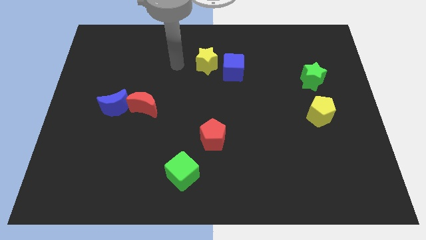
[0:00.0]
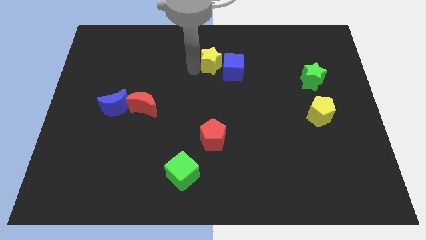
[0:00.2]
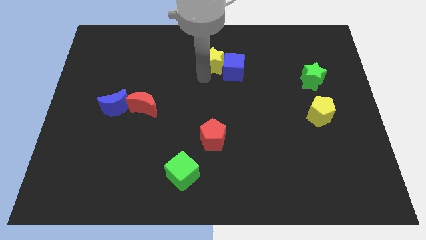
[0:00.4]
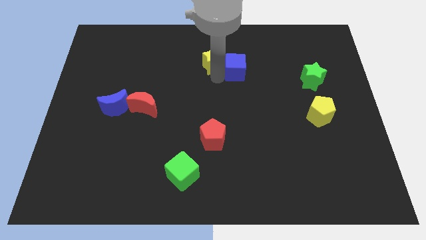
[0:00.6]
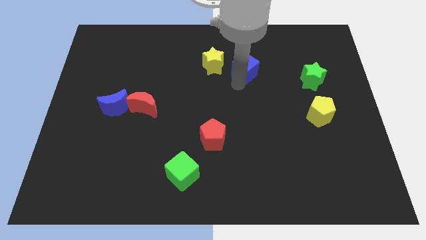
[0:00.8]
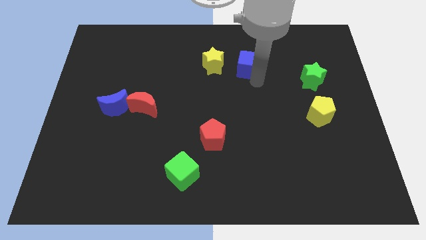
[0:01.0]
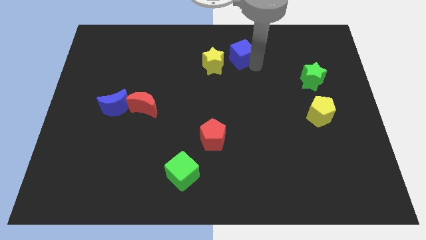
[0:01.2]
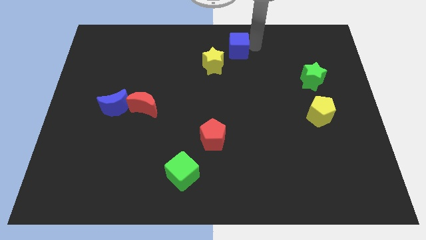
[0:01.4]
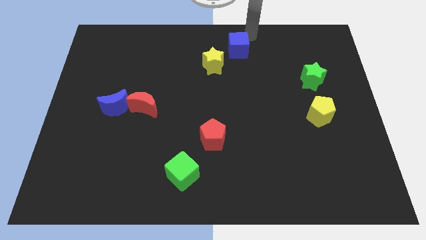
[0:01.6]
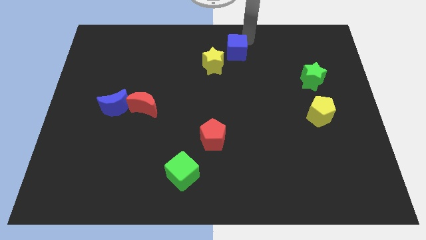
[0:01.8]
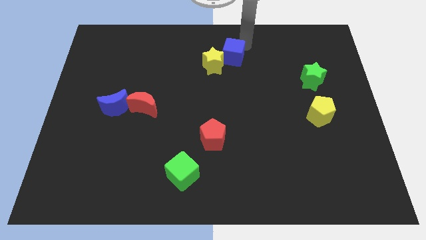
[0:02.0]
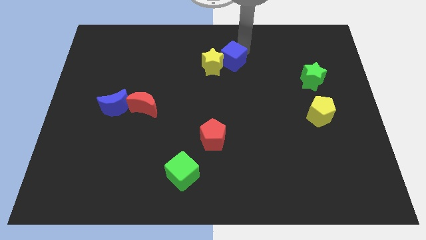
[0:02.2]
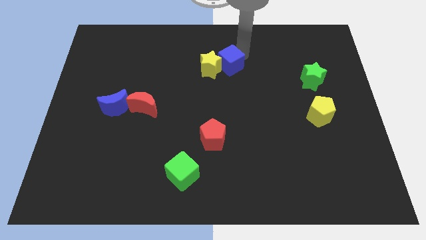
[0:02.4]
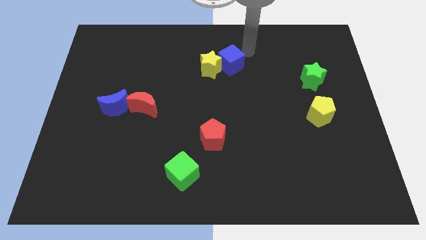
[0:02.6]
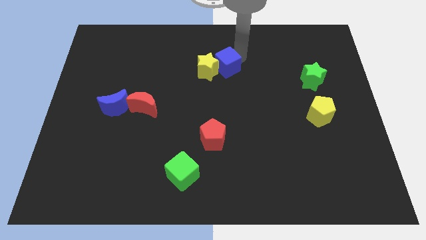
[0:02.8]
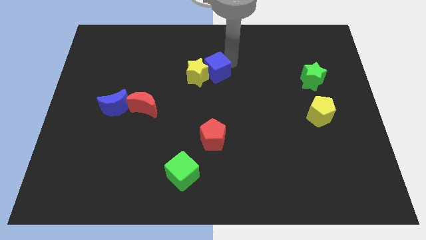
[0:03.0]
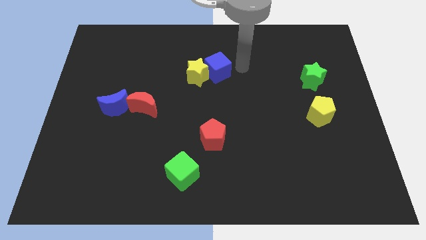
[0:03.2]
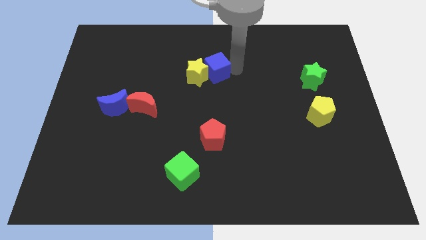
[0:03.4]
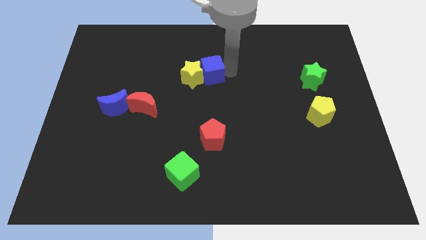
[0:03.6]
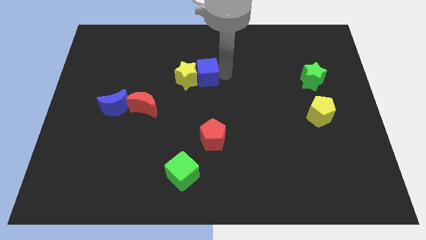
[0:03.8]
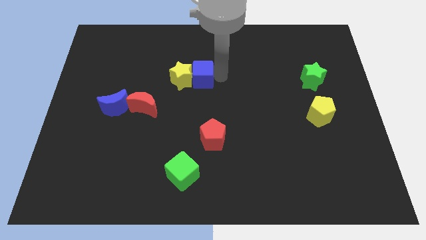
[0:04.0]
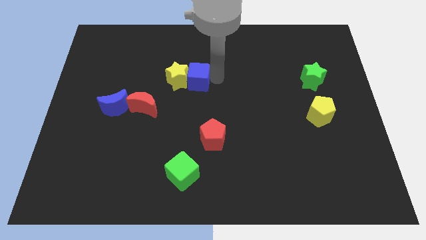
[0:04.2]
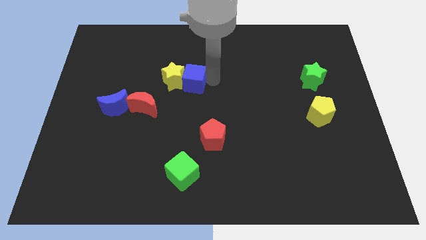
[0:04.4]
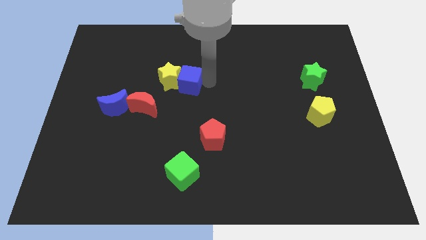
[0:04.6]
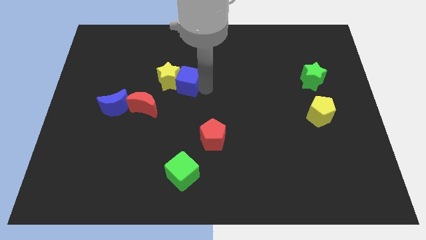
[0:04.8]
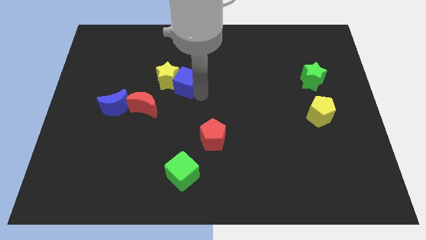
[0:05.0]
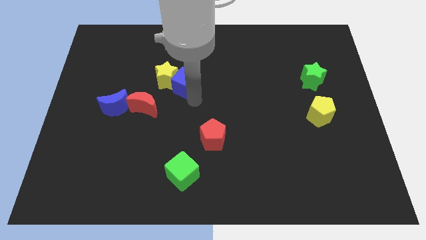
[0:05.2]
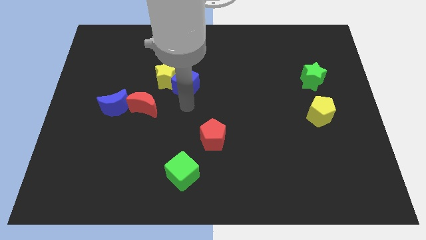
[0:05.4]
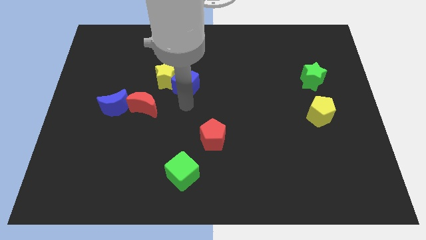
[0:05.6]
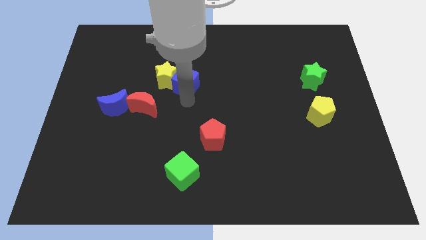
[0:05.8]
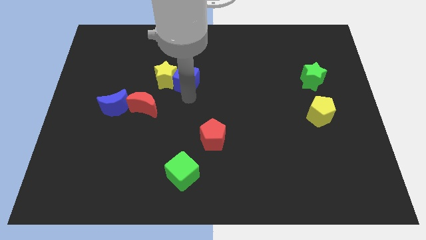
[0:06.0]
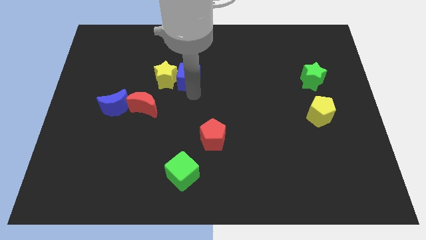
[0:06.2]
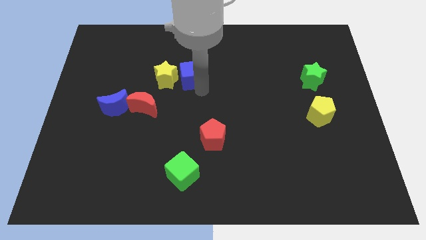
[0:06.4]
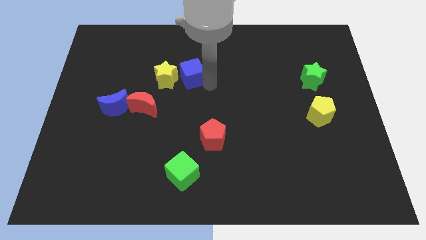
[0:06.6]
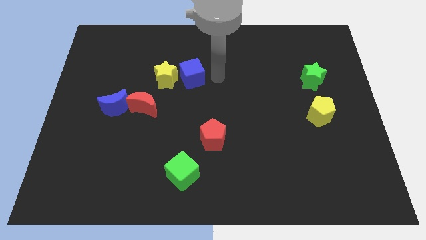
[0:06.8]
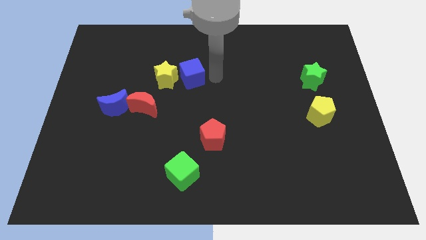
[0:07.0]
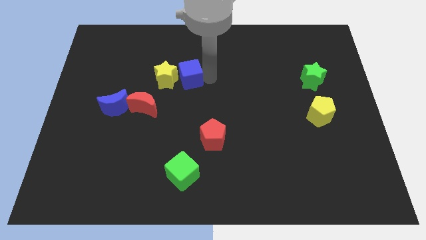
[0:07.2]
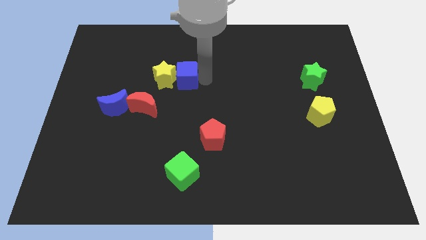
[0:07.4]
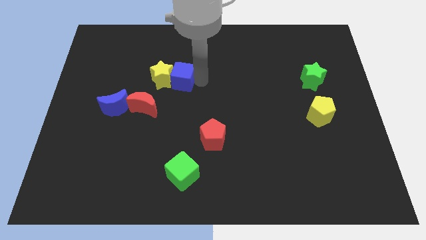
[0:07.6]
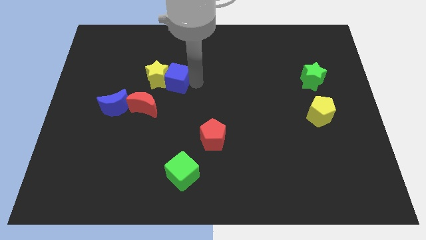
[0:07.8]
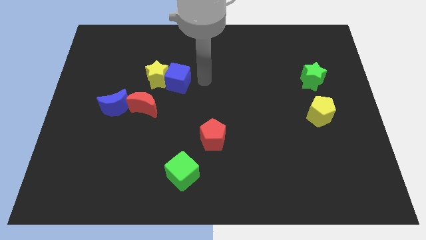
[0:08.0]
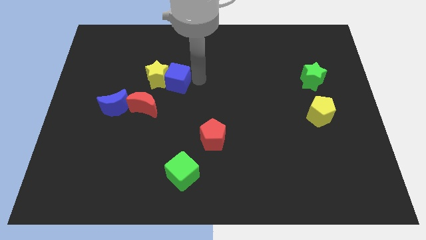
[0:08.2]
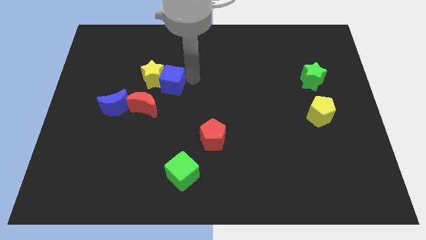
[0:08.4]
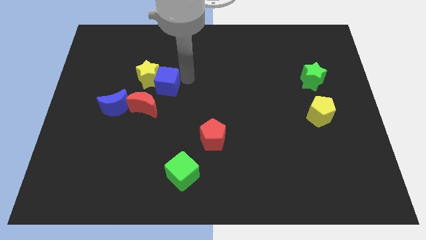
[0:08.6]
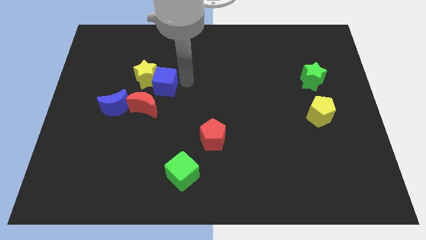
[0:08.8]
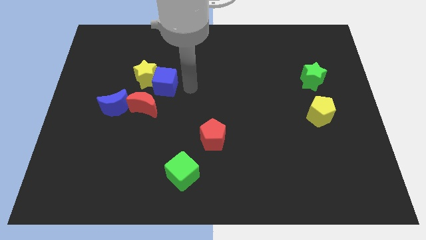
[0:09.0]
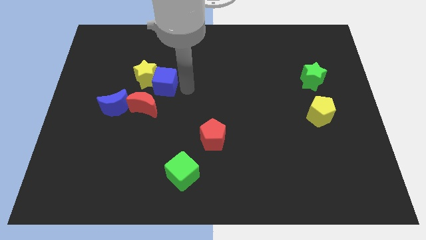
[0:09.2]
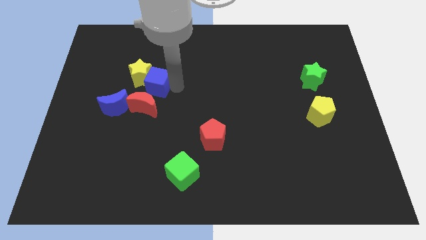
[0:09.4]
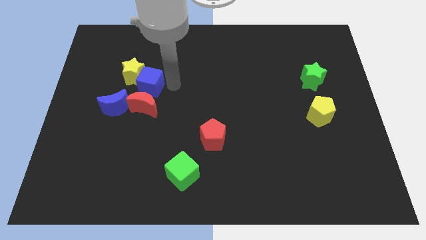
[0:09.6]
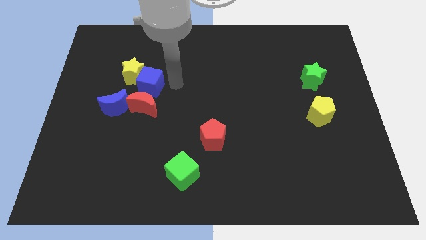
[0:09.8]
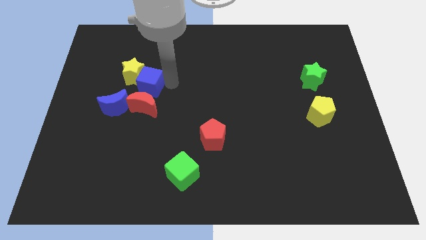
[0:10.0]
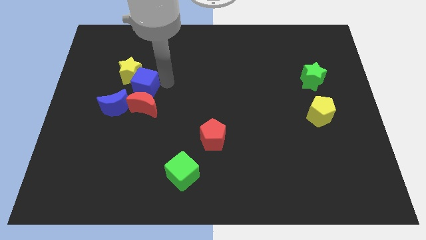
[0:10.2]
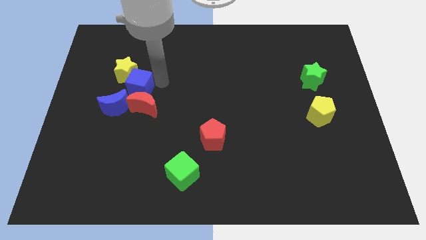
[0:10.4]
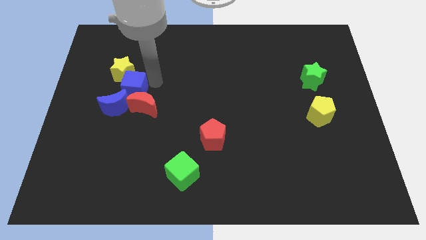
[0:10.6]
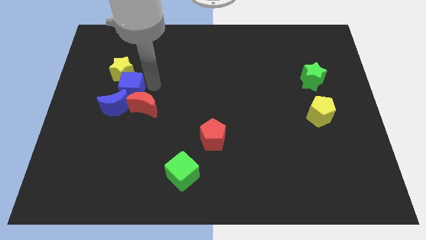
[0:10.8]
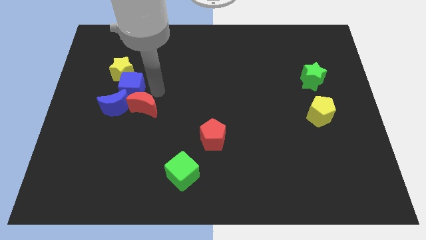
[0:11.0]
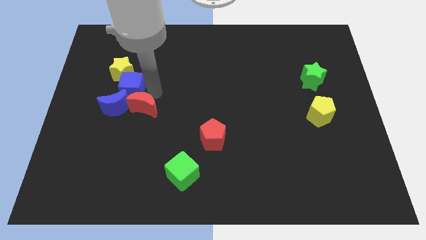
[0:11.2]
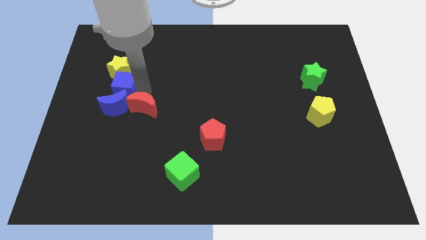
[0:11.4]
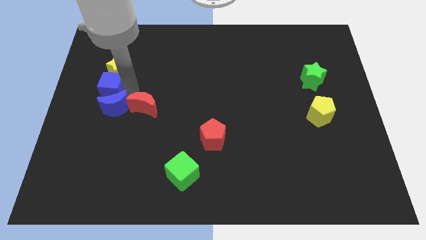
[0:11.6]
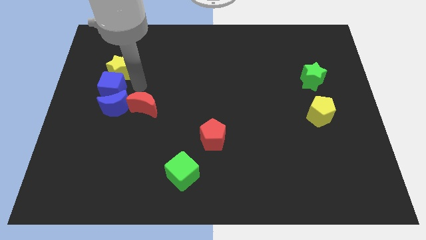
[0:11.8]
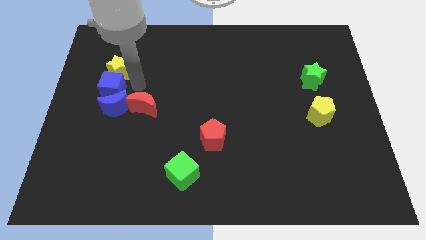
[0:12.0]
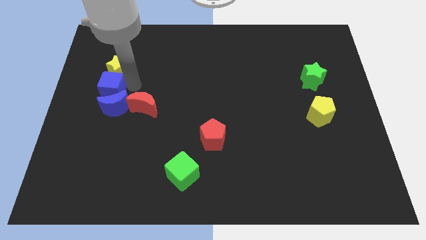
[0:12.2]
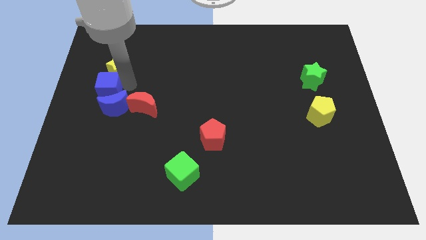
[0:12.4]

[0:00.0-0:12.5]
put the blue cube to the center left

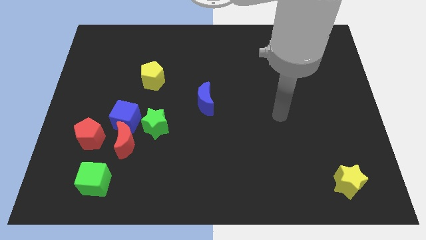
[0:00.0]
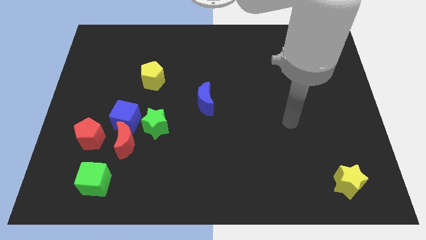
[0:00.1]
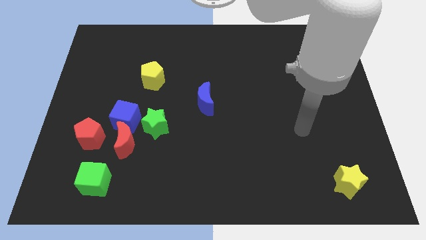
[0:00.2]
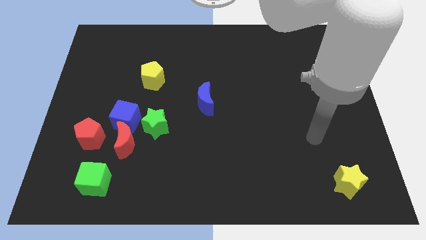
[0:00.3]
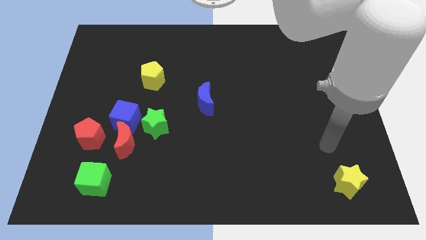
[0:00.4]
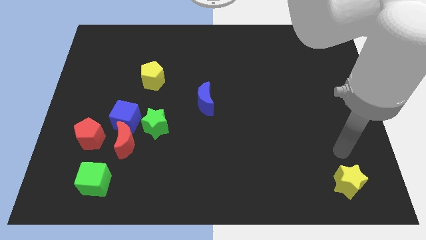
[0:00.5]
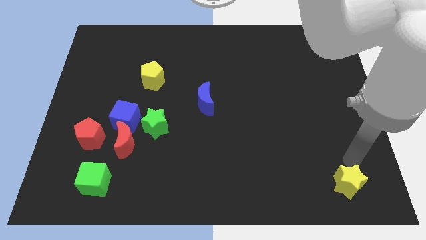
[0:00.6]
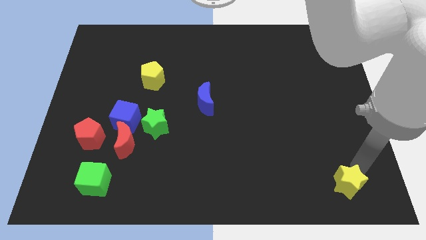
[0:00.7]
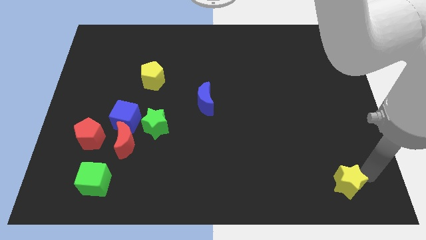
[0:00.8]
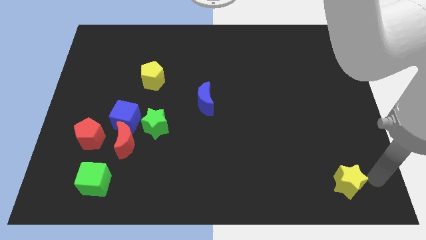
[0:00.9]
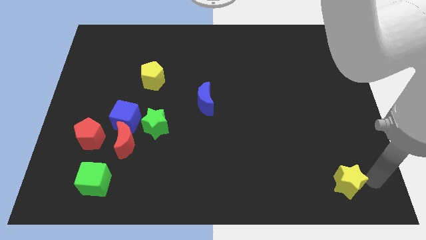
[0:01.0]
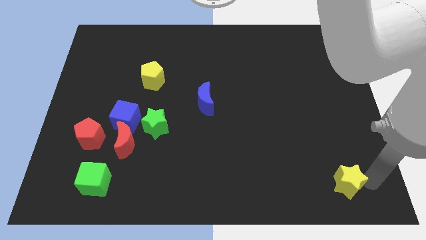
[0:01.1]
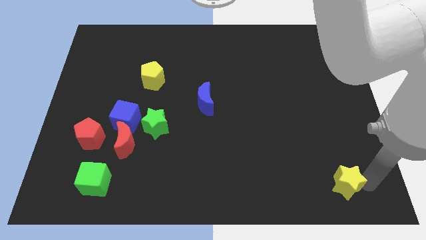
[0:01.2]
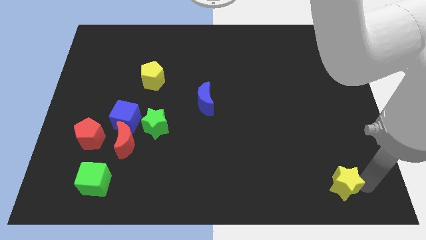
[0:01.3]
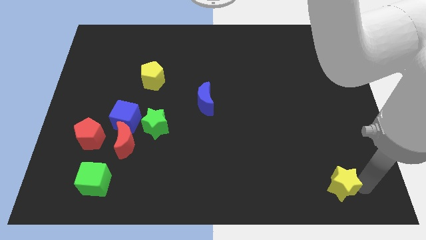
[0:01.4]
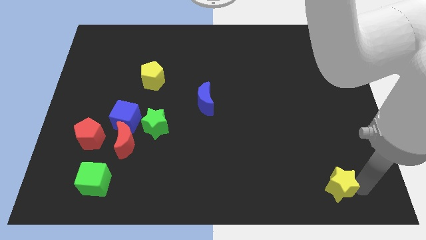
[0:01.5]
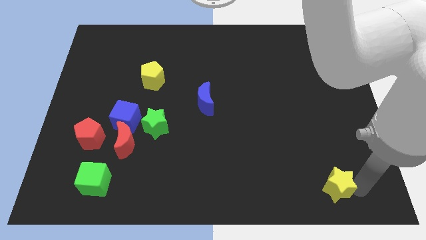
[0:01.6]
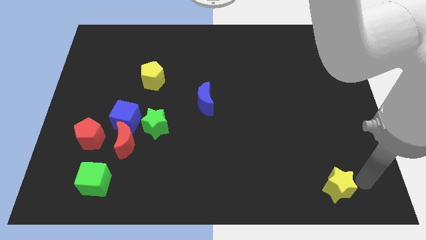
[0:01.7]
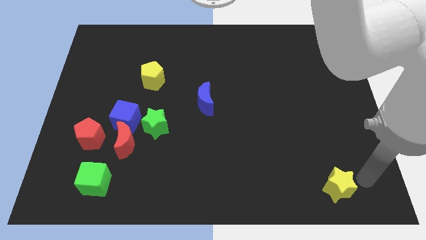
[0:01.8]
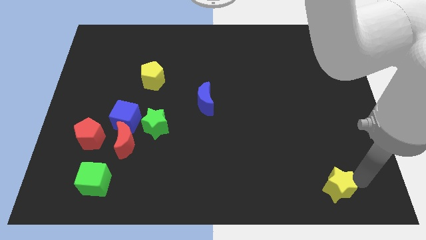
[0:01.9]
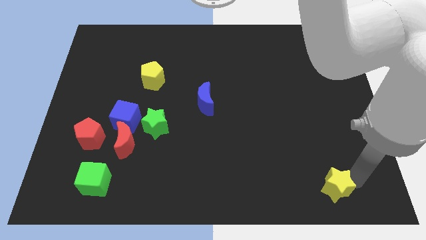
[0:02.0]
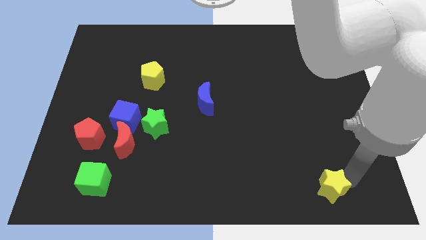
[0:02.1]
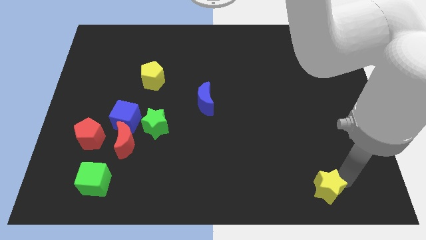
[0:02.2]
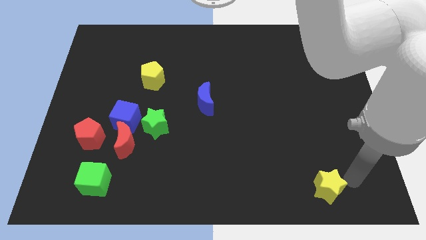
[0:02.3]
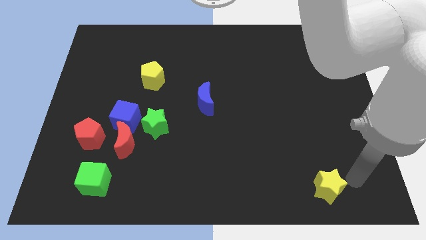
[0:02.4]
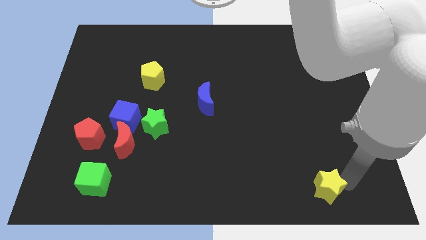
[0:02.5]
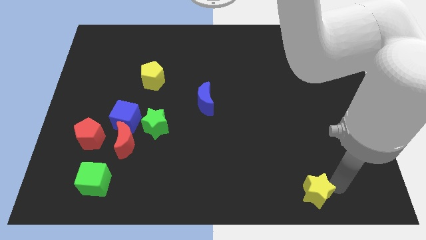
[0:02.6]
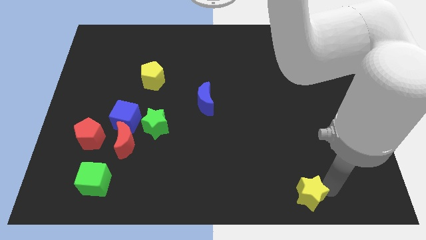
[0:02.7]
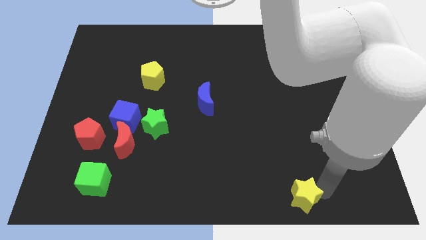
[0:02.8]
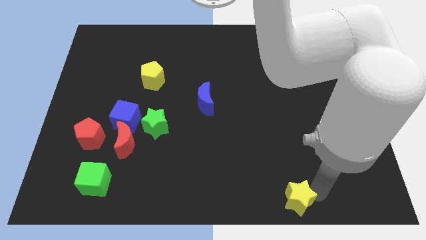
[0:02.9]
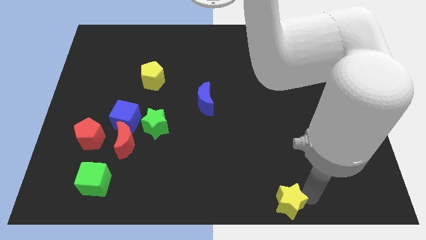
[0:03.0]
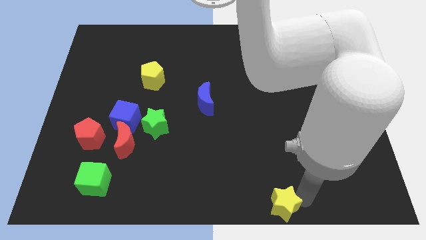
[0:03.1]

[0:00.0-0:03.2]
slide the yellow star to the bottom
